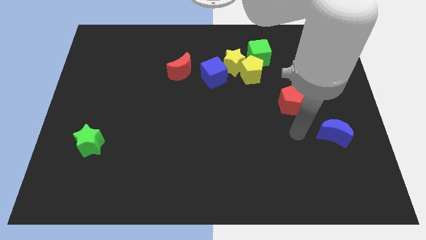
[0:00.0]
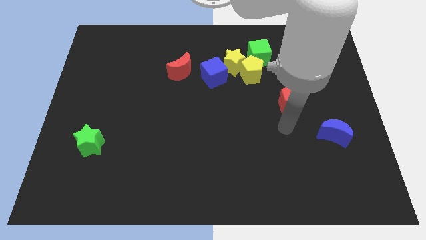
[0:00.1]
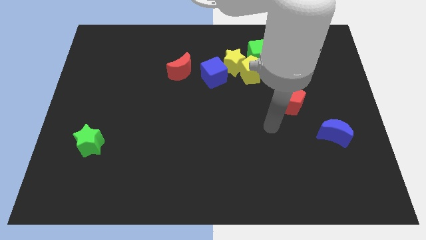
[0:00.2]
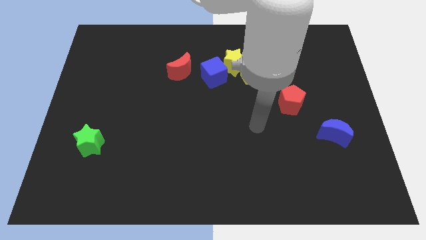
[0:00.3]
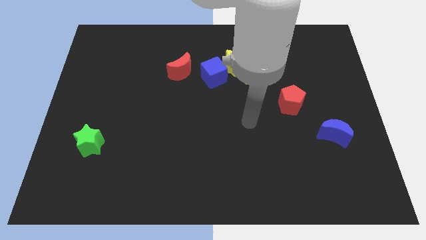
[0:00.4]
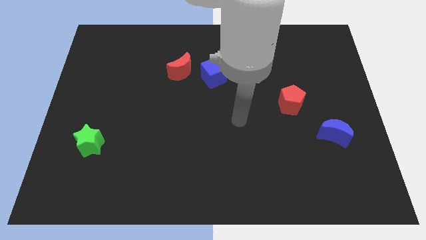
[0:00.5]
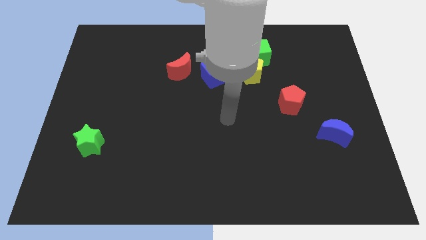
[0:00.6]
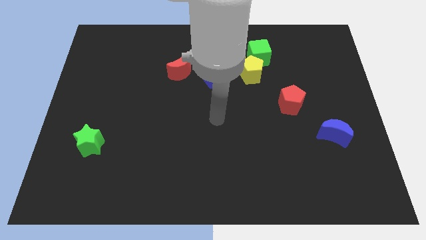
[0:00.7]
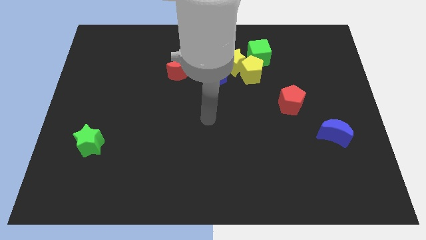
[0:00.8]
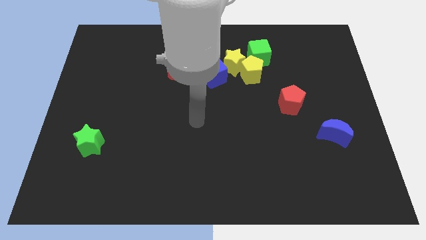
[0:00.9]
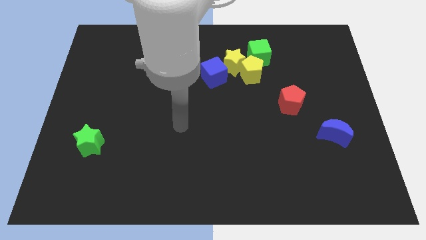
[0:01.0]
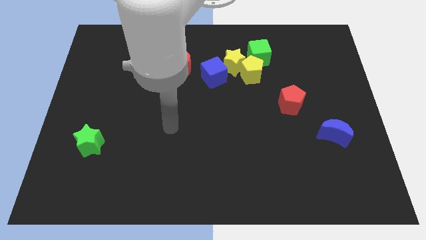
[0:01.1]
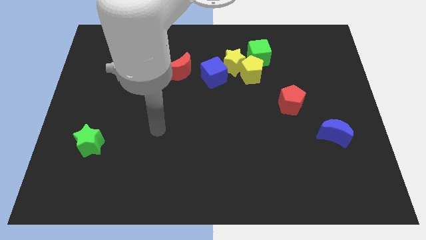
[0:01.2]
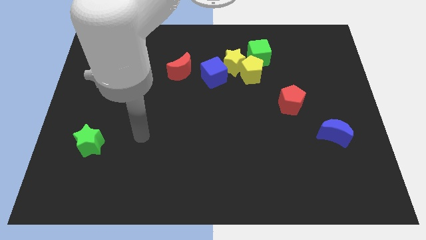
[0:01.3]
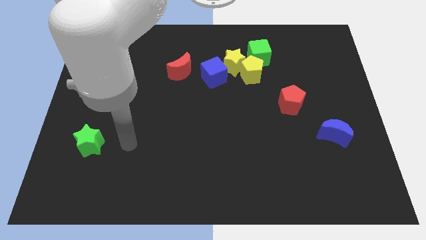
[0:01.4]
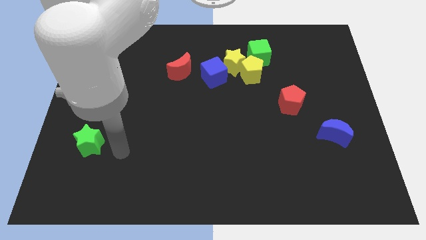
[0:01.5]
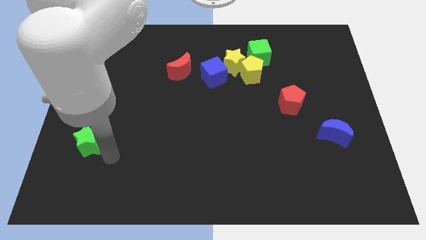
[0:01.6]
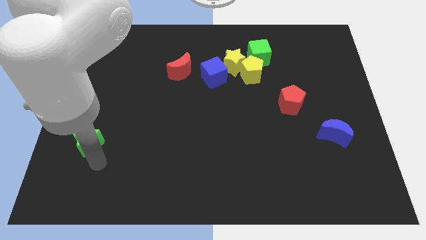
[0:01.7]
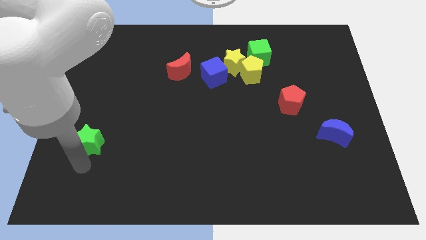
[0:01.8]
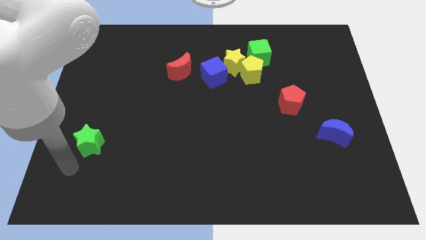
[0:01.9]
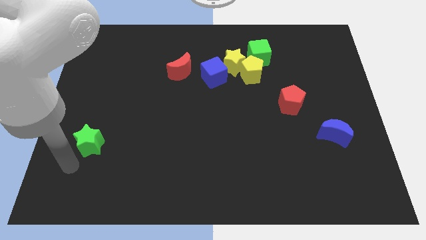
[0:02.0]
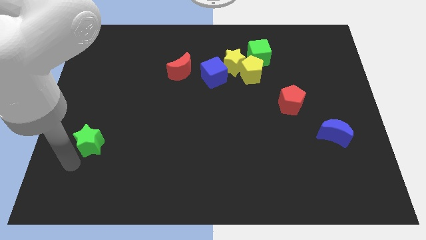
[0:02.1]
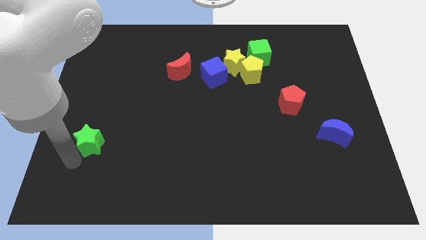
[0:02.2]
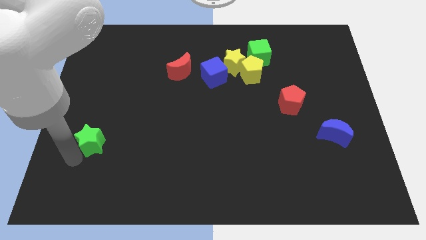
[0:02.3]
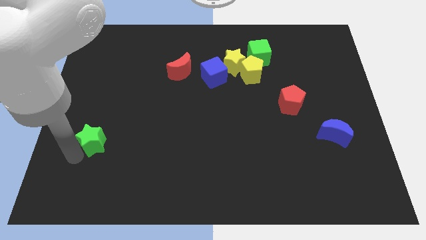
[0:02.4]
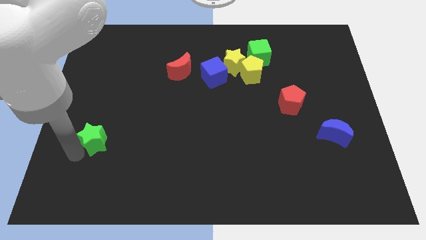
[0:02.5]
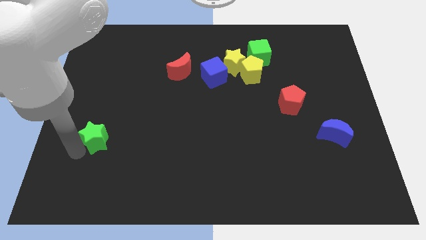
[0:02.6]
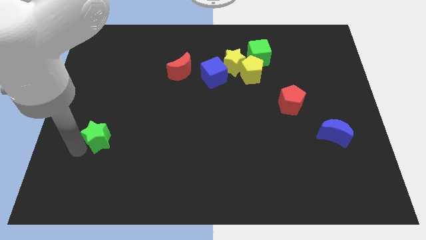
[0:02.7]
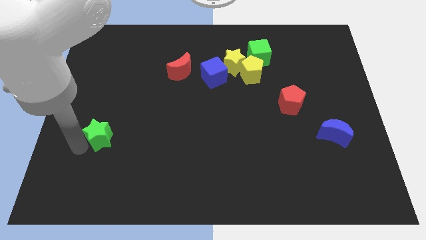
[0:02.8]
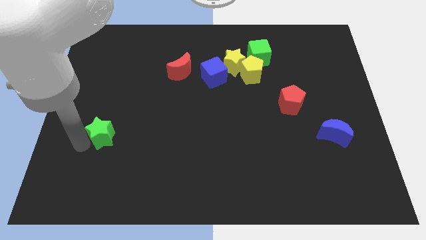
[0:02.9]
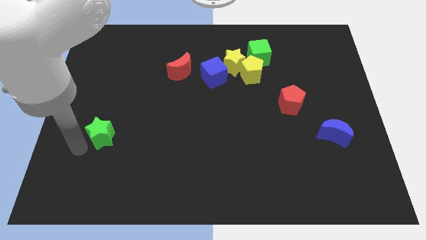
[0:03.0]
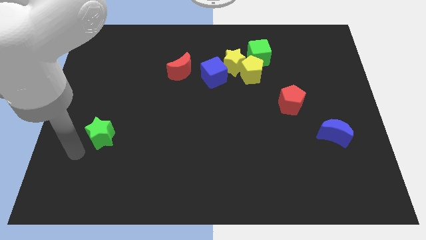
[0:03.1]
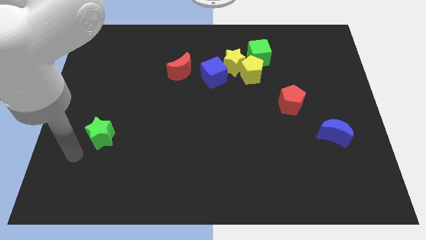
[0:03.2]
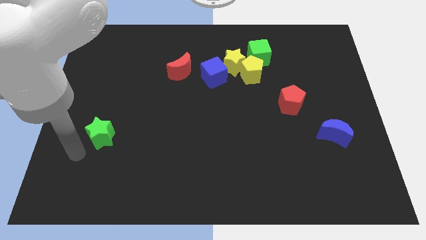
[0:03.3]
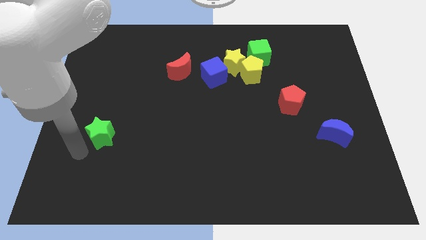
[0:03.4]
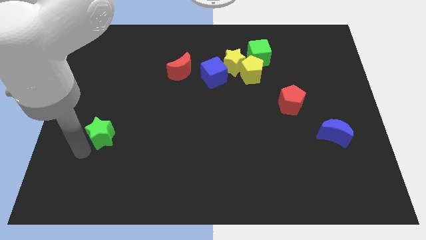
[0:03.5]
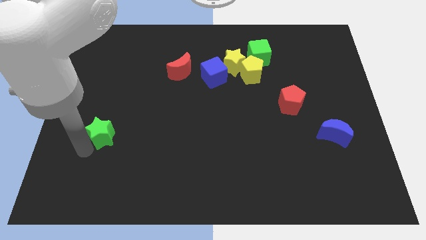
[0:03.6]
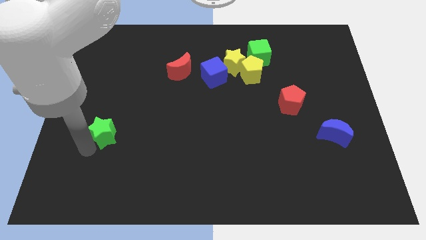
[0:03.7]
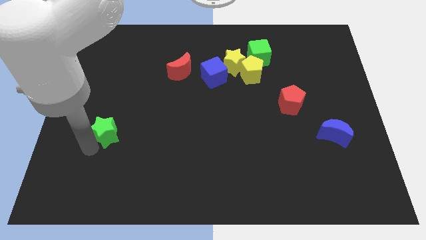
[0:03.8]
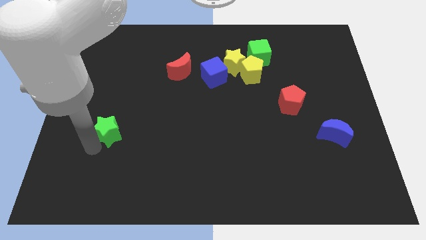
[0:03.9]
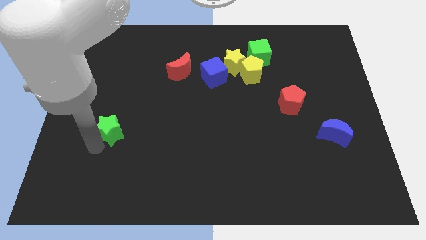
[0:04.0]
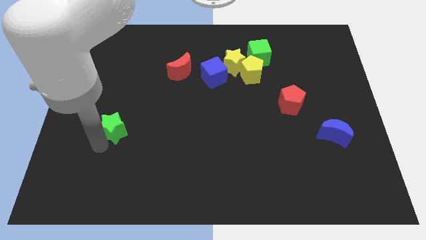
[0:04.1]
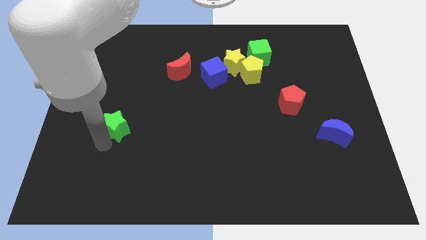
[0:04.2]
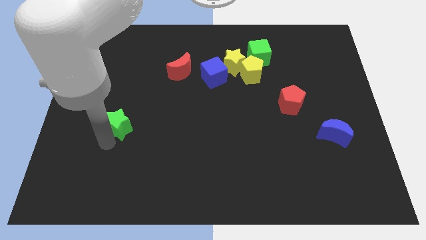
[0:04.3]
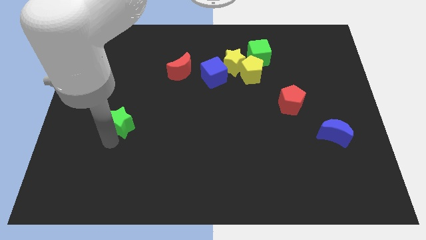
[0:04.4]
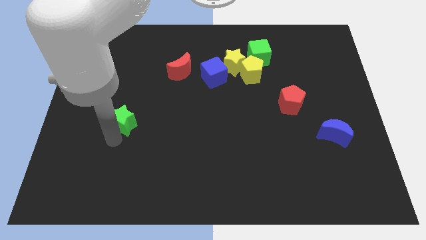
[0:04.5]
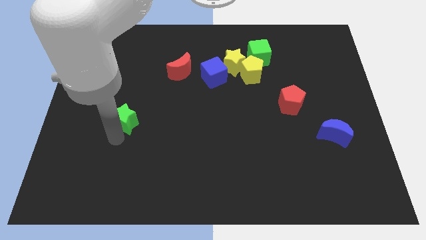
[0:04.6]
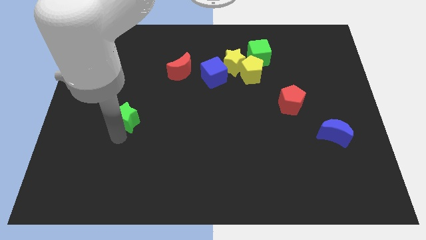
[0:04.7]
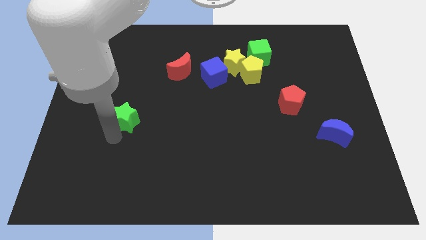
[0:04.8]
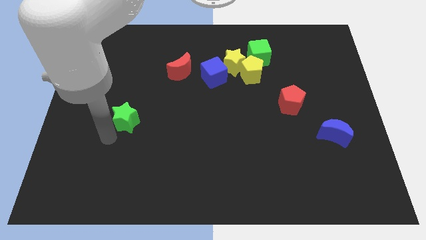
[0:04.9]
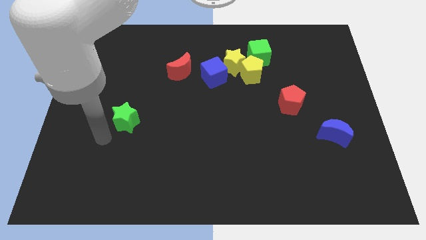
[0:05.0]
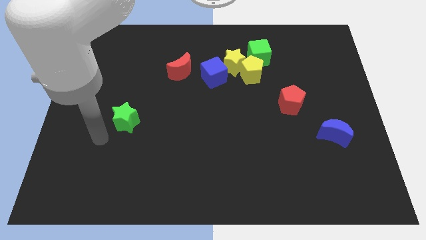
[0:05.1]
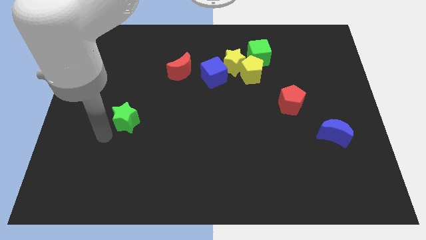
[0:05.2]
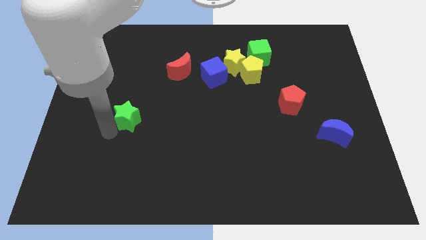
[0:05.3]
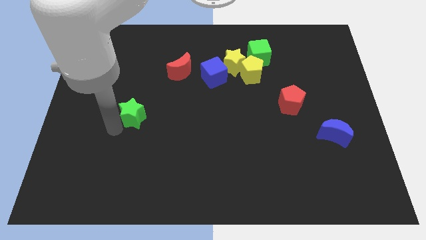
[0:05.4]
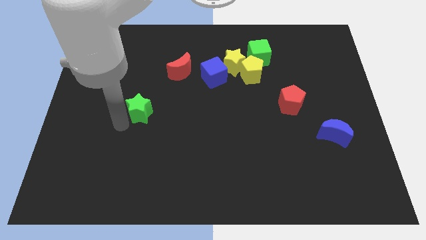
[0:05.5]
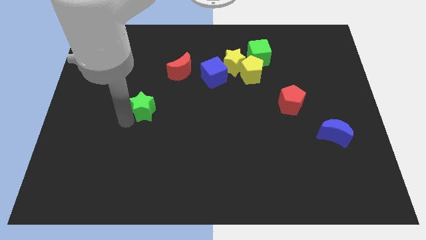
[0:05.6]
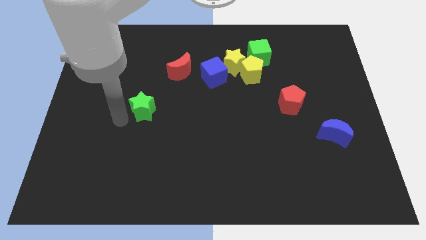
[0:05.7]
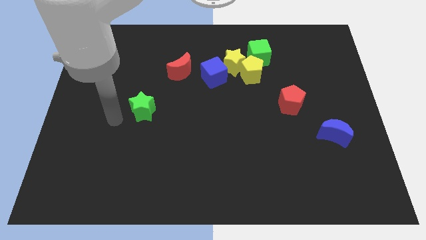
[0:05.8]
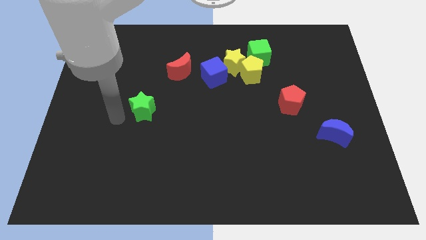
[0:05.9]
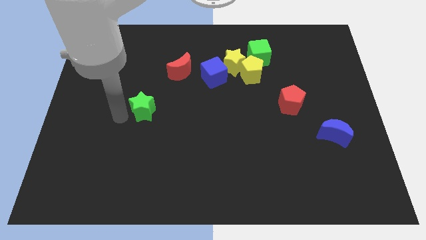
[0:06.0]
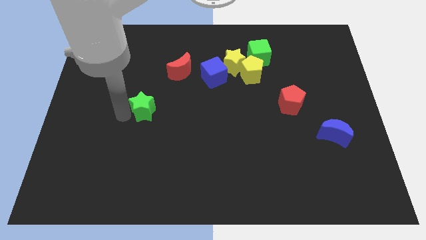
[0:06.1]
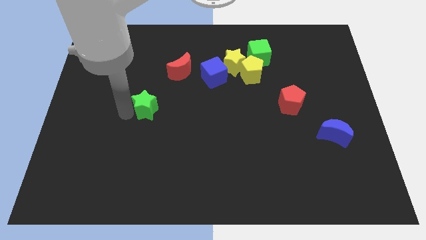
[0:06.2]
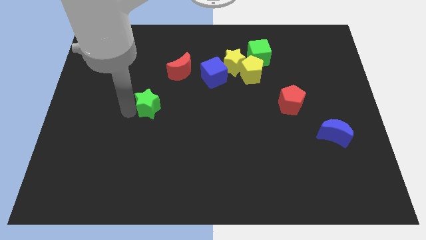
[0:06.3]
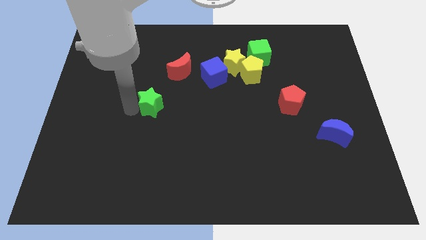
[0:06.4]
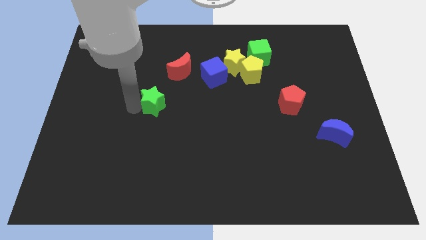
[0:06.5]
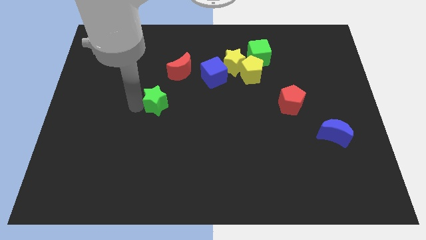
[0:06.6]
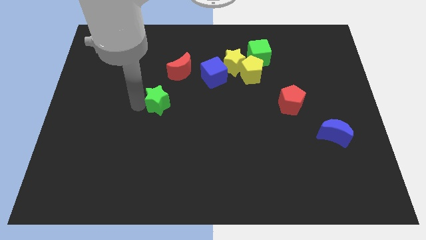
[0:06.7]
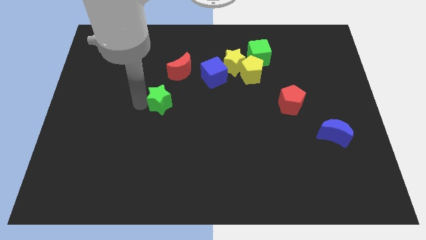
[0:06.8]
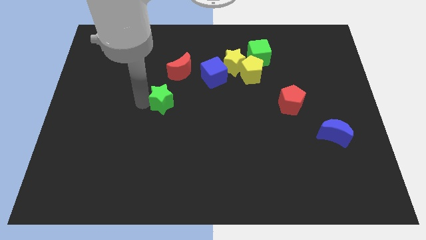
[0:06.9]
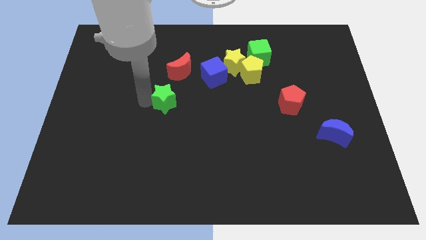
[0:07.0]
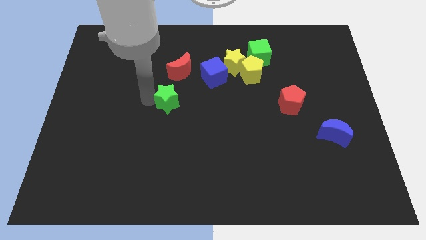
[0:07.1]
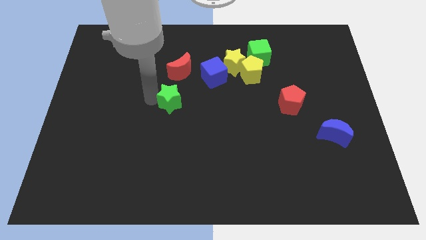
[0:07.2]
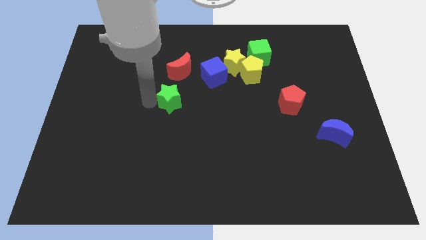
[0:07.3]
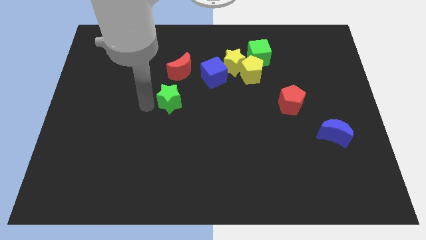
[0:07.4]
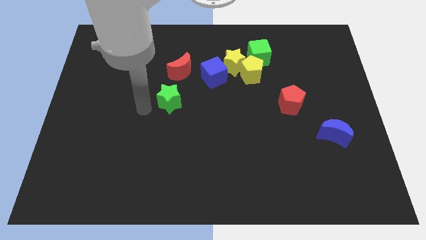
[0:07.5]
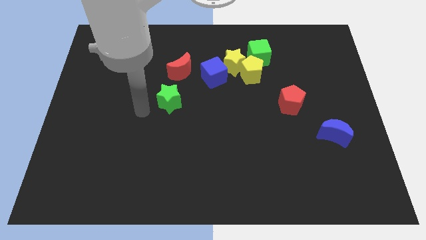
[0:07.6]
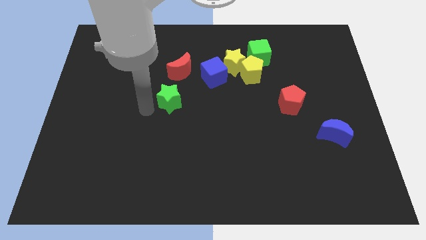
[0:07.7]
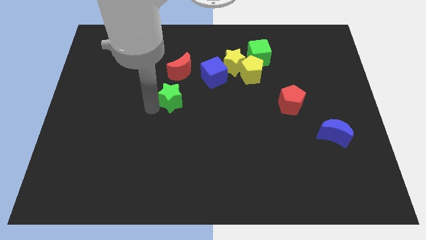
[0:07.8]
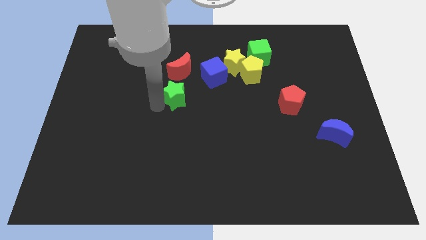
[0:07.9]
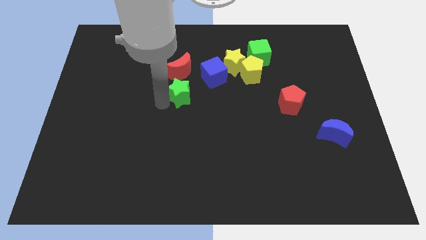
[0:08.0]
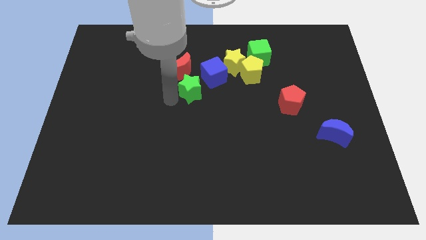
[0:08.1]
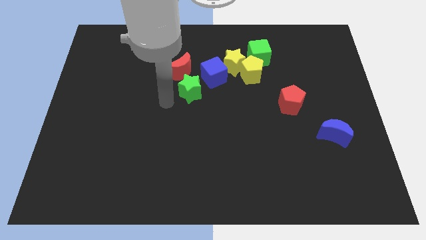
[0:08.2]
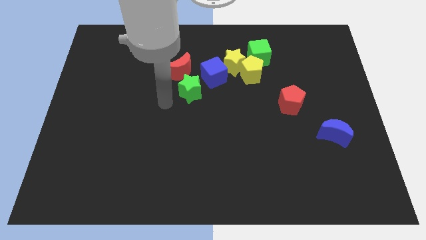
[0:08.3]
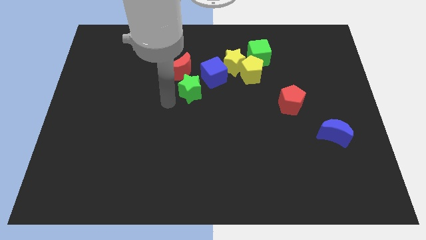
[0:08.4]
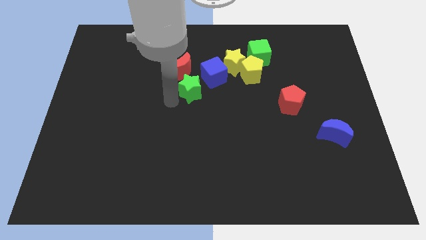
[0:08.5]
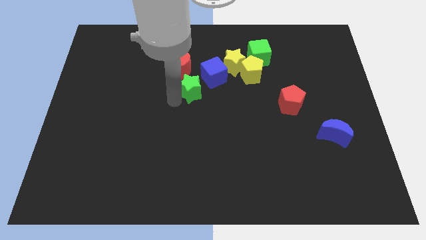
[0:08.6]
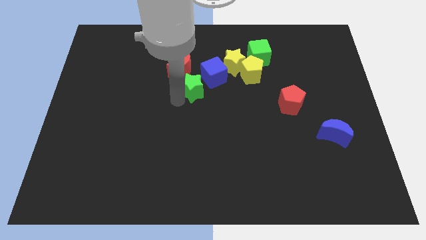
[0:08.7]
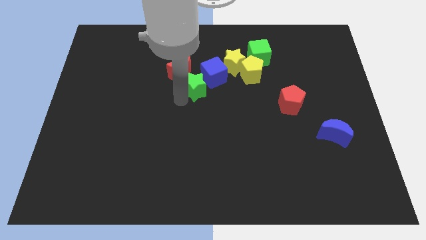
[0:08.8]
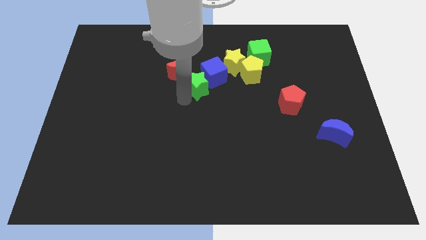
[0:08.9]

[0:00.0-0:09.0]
put the green star to the bottom left side of the yellow star
